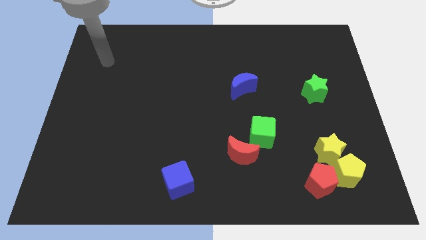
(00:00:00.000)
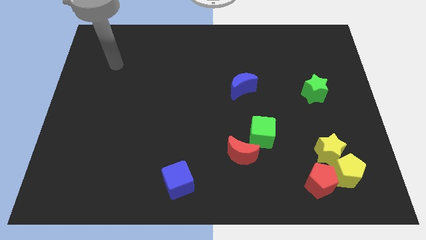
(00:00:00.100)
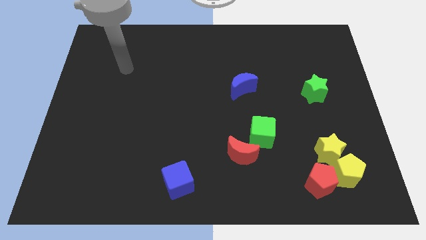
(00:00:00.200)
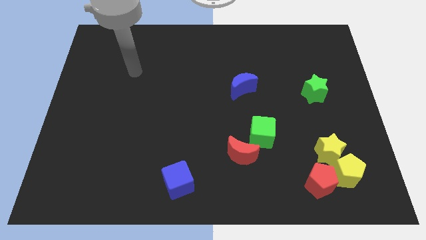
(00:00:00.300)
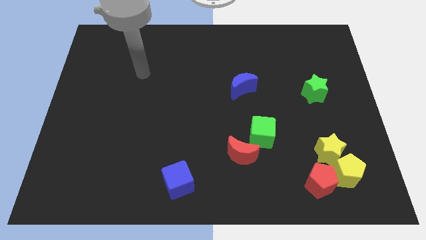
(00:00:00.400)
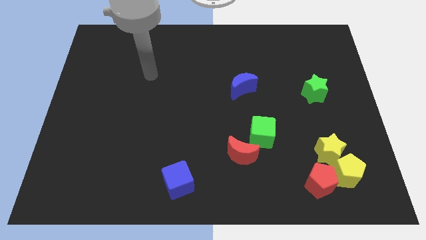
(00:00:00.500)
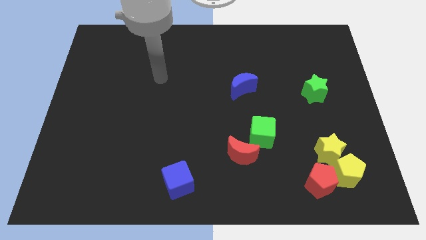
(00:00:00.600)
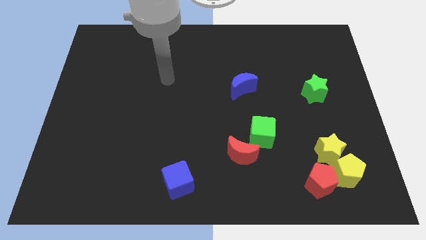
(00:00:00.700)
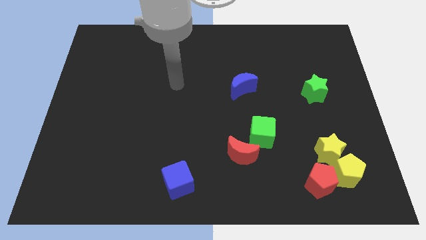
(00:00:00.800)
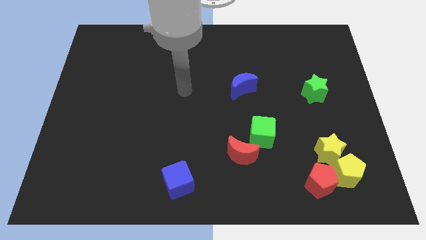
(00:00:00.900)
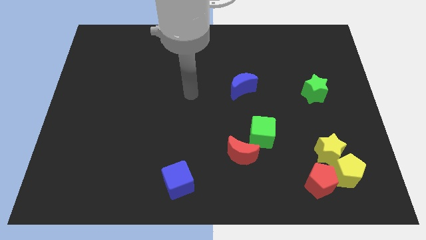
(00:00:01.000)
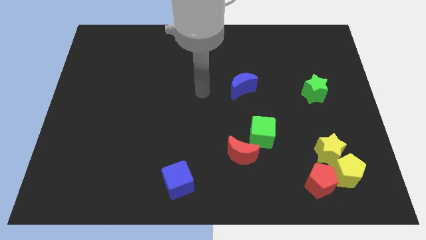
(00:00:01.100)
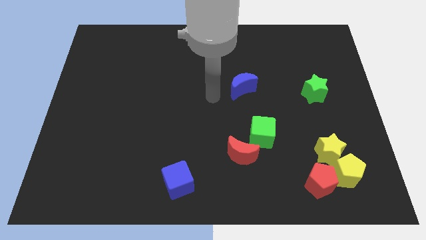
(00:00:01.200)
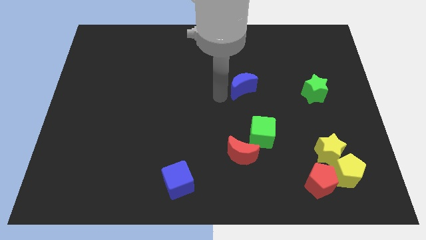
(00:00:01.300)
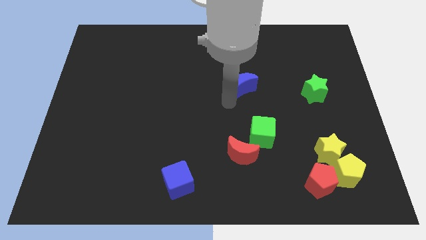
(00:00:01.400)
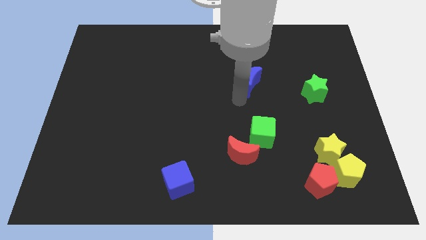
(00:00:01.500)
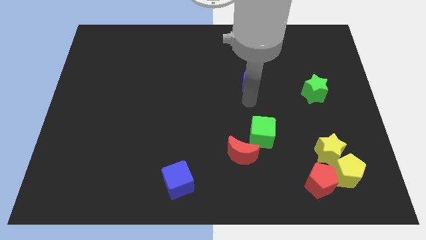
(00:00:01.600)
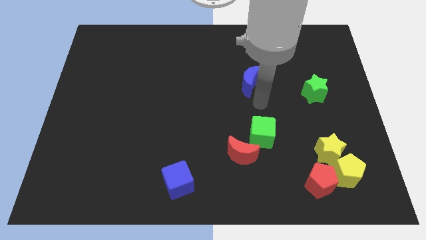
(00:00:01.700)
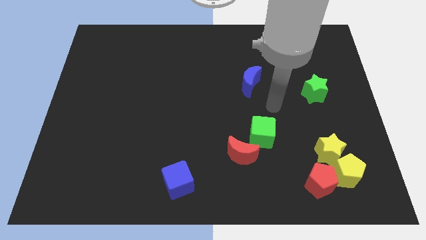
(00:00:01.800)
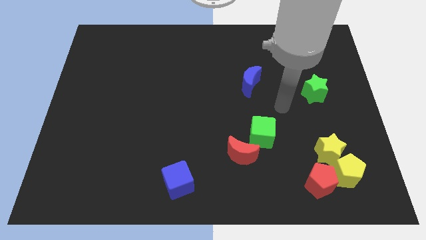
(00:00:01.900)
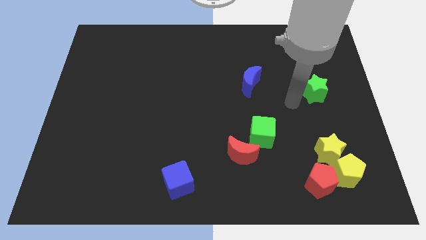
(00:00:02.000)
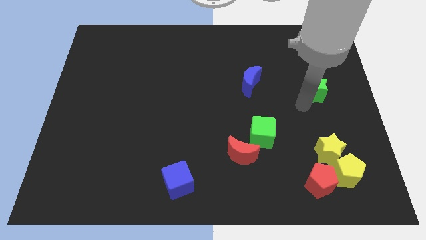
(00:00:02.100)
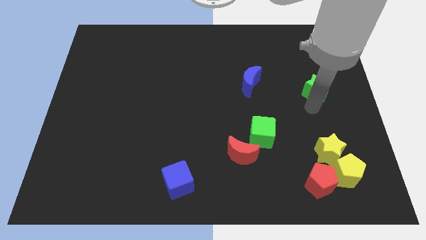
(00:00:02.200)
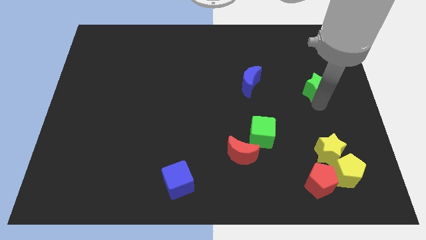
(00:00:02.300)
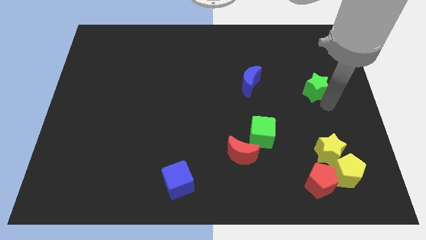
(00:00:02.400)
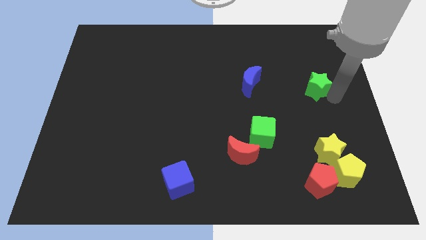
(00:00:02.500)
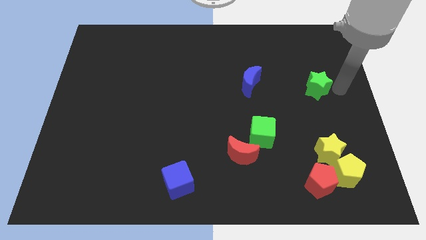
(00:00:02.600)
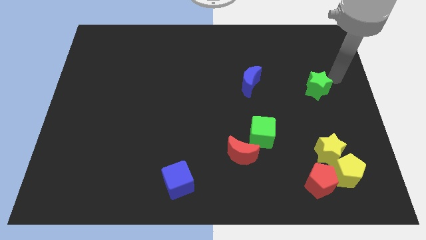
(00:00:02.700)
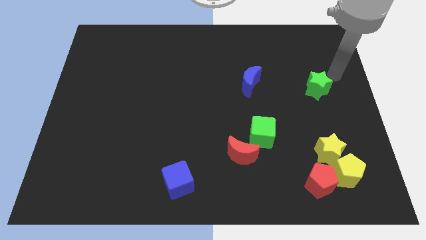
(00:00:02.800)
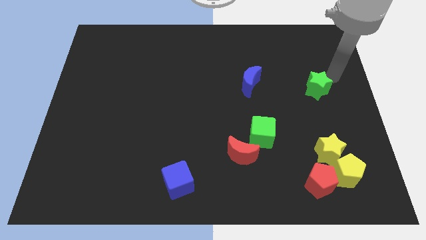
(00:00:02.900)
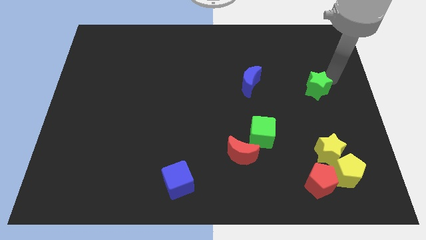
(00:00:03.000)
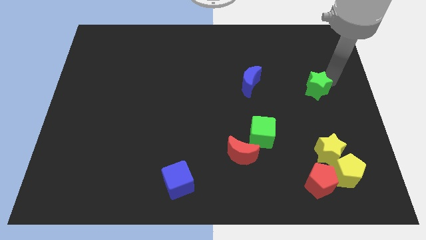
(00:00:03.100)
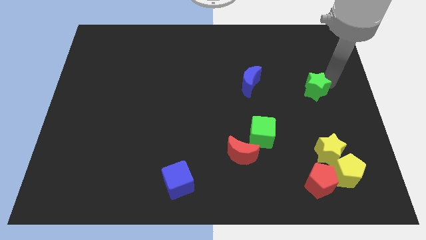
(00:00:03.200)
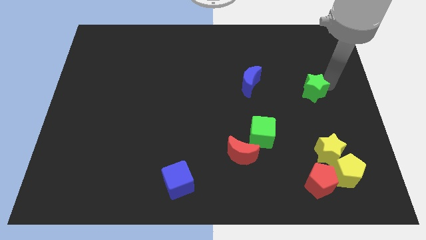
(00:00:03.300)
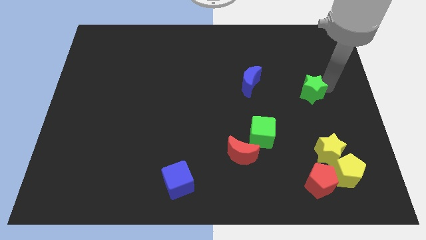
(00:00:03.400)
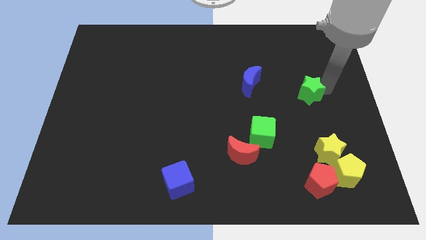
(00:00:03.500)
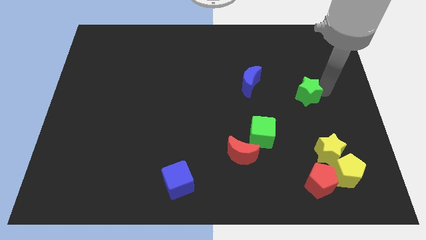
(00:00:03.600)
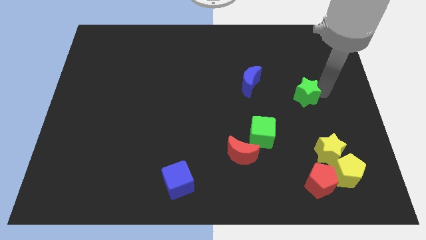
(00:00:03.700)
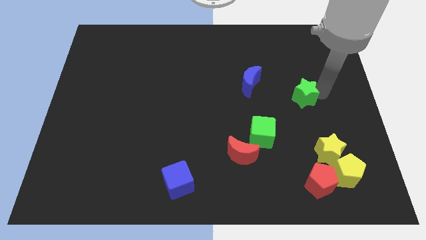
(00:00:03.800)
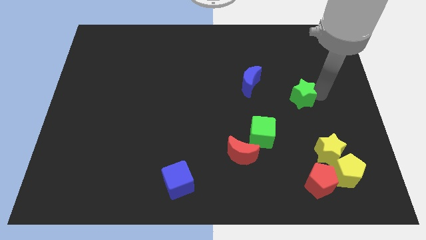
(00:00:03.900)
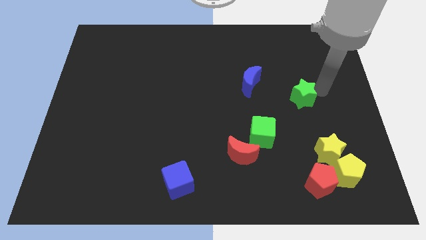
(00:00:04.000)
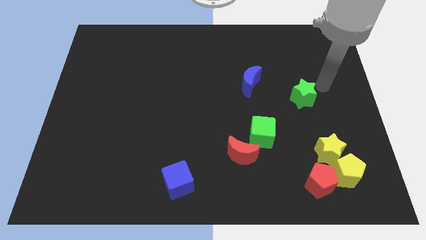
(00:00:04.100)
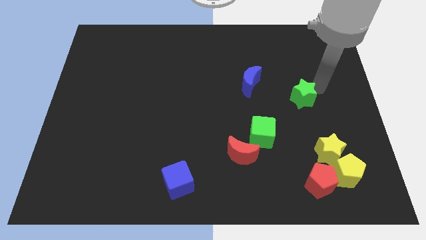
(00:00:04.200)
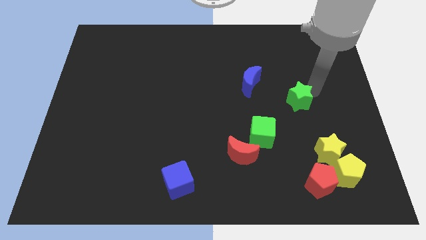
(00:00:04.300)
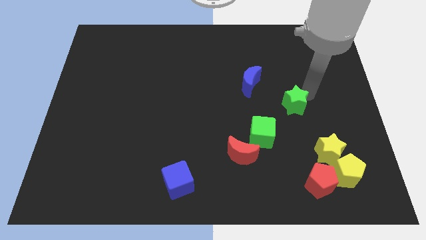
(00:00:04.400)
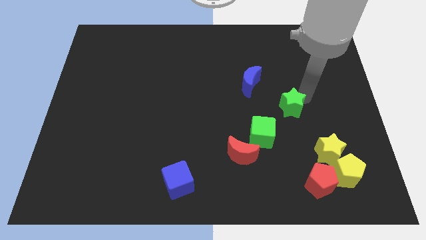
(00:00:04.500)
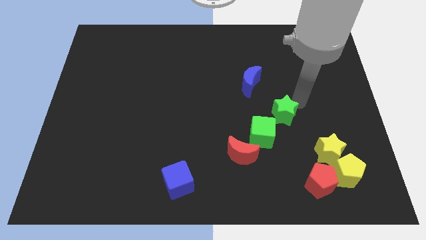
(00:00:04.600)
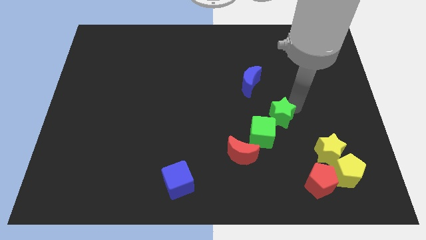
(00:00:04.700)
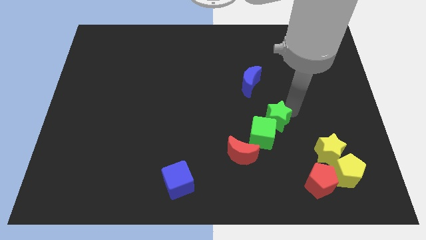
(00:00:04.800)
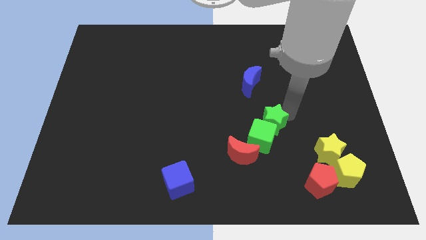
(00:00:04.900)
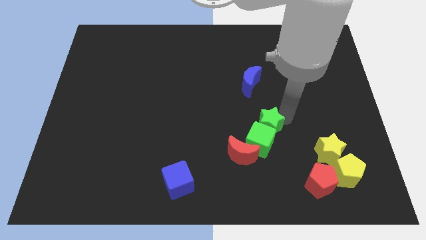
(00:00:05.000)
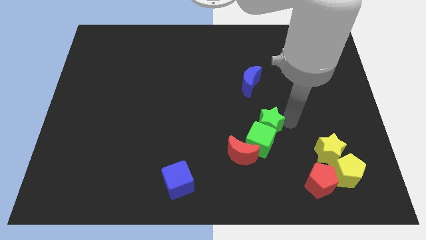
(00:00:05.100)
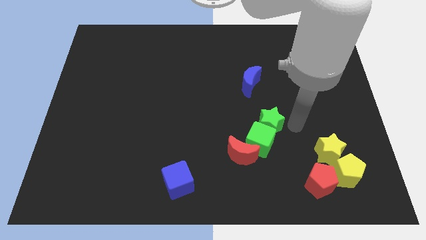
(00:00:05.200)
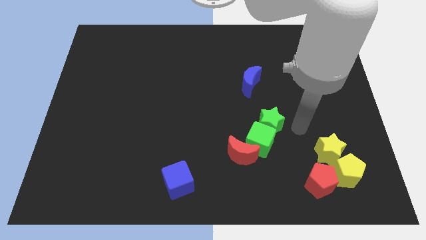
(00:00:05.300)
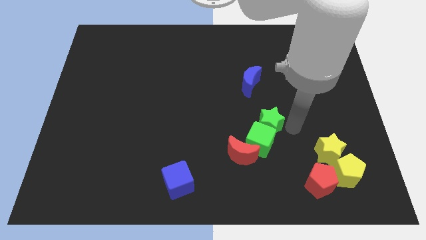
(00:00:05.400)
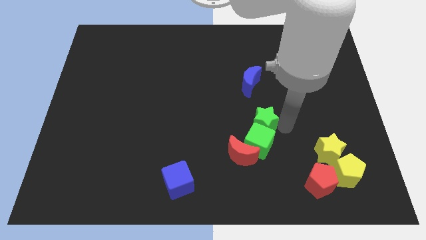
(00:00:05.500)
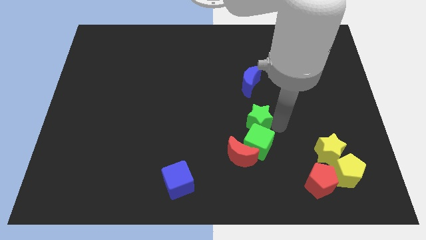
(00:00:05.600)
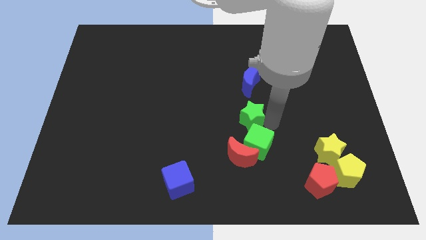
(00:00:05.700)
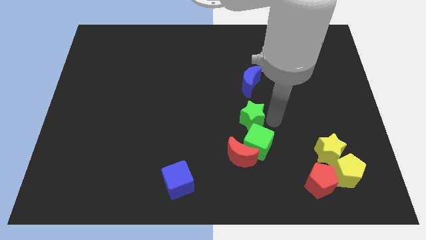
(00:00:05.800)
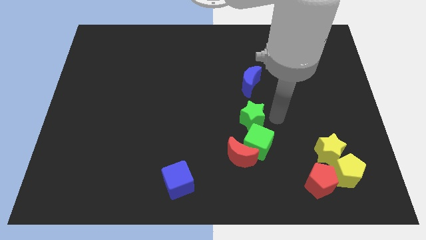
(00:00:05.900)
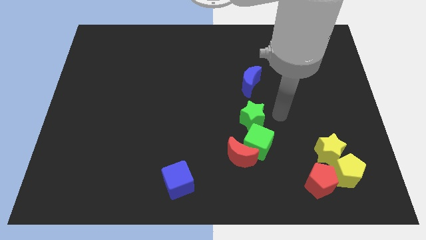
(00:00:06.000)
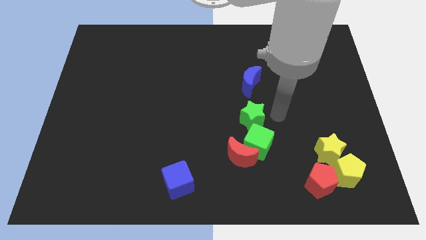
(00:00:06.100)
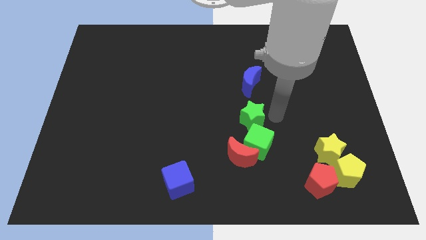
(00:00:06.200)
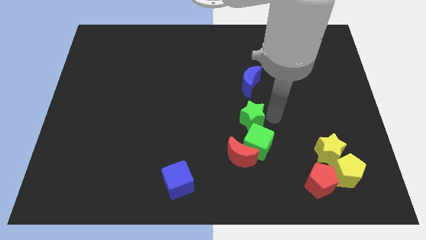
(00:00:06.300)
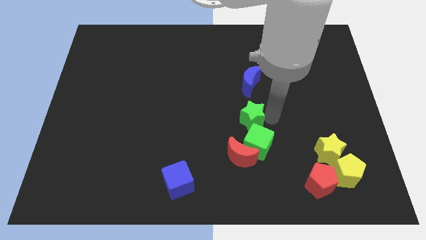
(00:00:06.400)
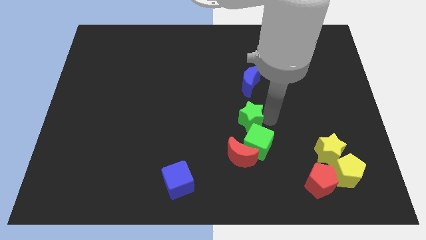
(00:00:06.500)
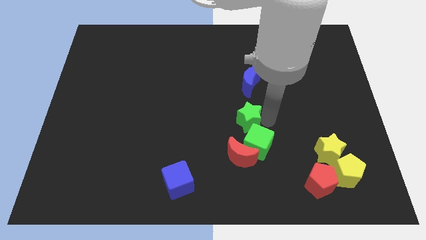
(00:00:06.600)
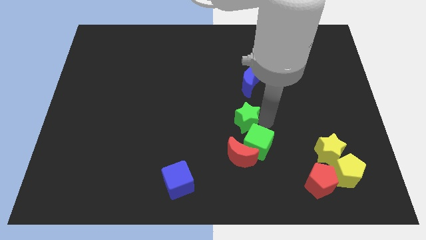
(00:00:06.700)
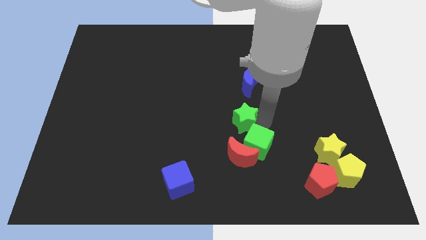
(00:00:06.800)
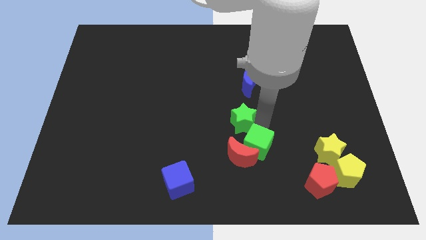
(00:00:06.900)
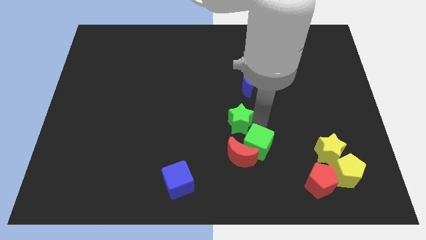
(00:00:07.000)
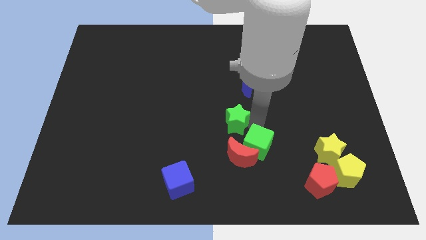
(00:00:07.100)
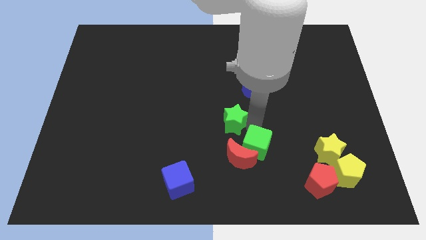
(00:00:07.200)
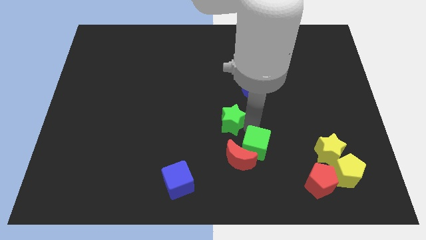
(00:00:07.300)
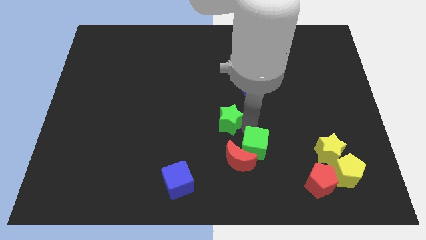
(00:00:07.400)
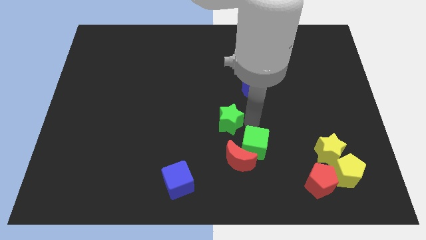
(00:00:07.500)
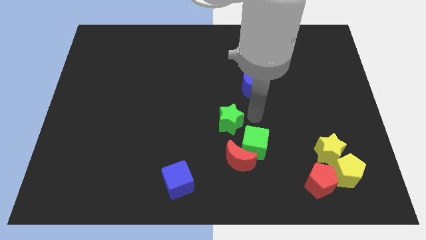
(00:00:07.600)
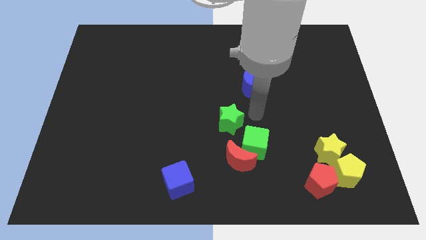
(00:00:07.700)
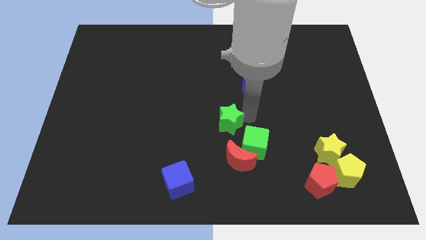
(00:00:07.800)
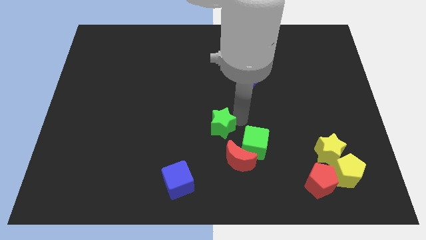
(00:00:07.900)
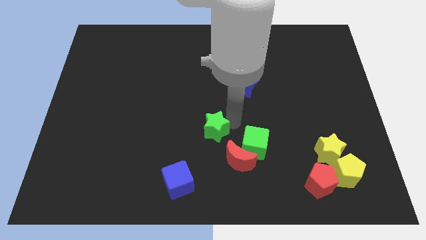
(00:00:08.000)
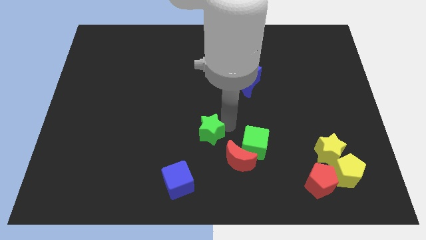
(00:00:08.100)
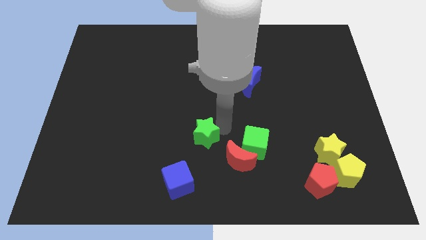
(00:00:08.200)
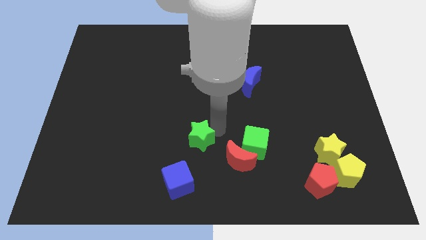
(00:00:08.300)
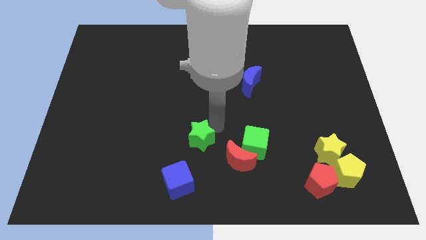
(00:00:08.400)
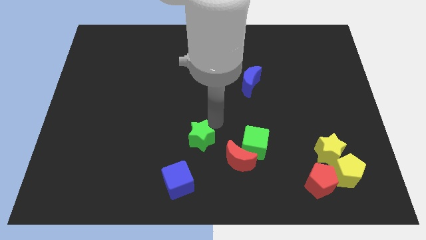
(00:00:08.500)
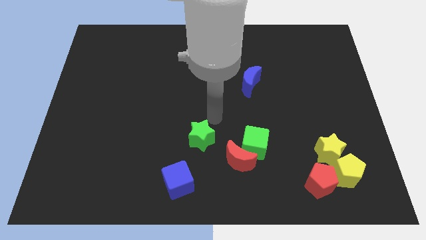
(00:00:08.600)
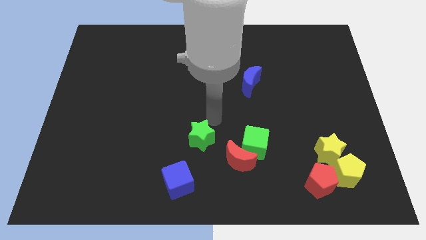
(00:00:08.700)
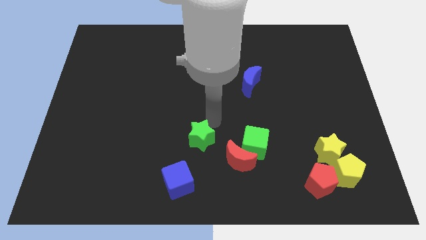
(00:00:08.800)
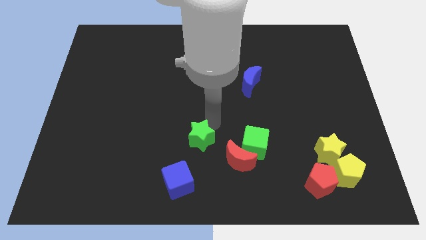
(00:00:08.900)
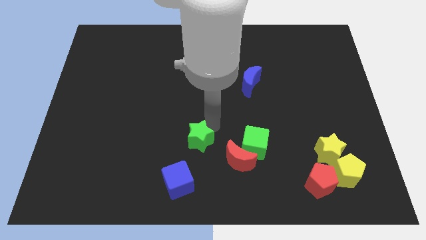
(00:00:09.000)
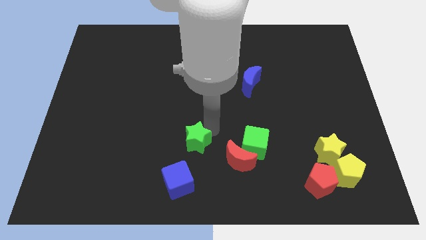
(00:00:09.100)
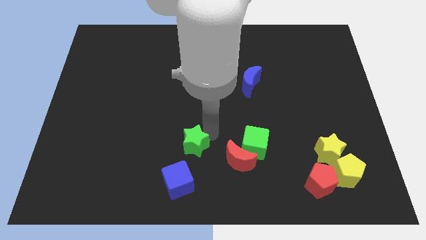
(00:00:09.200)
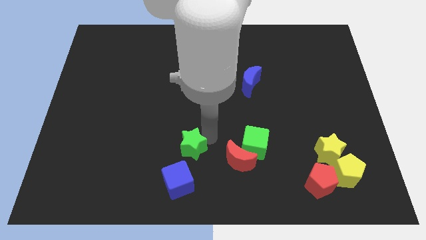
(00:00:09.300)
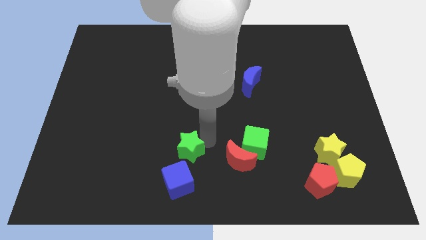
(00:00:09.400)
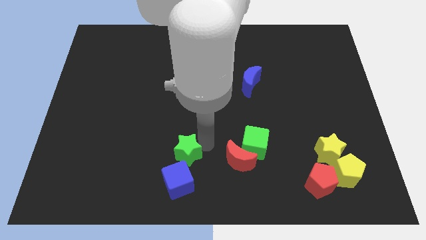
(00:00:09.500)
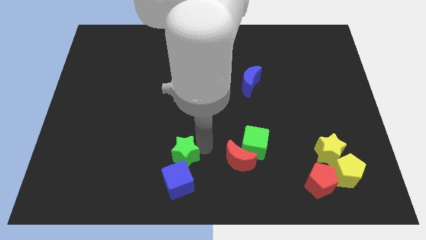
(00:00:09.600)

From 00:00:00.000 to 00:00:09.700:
push the green star towards the blue cube
